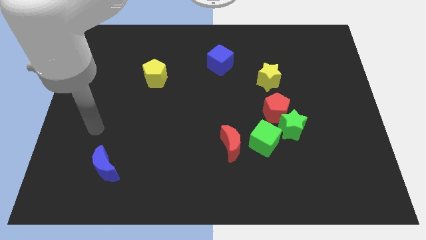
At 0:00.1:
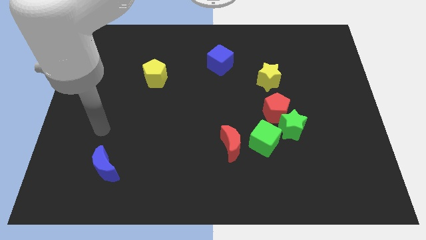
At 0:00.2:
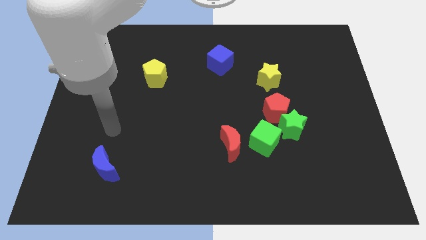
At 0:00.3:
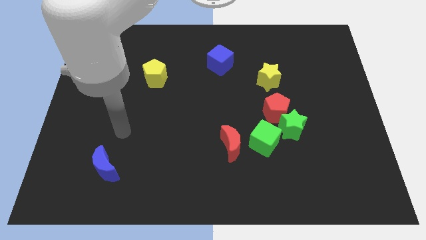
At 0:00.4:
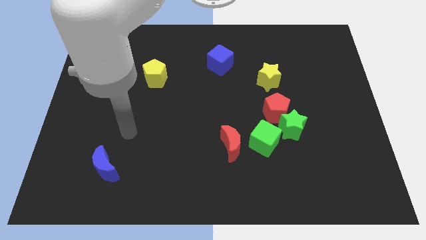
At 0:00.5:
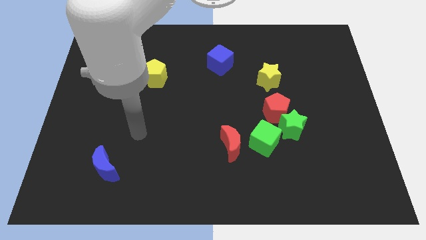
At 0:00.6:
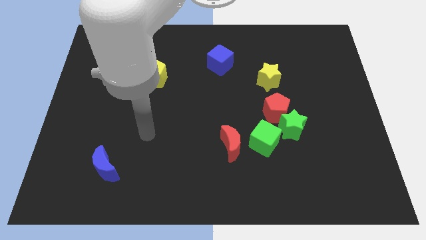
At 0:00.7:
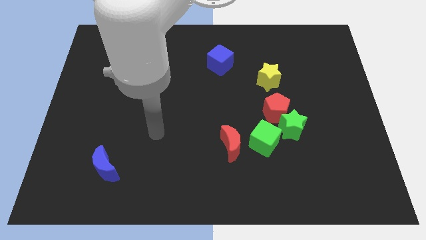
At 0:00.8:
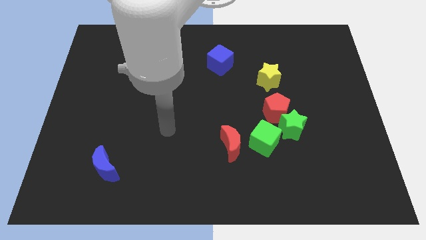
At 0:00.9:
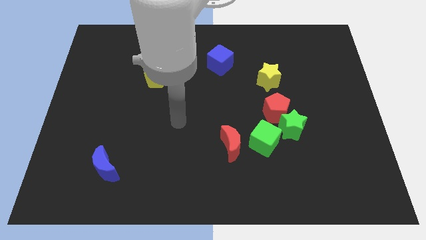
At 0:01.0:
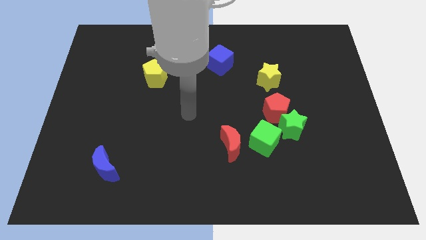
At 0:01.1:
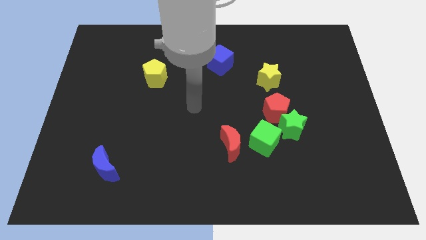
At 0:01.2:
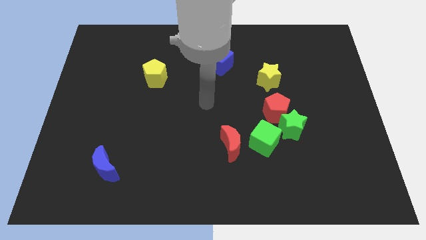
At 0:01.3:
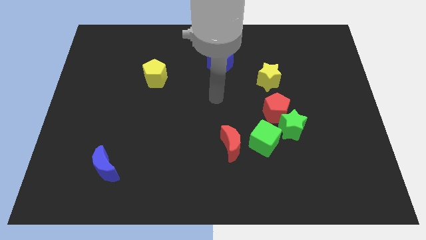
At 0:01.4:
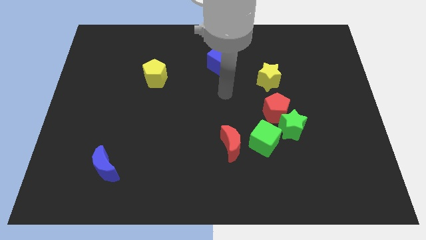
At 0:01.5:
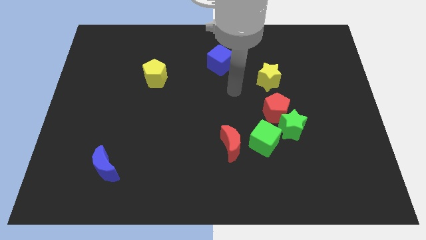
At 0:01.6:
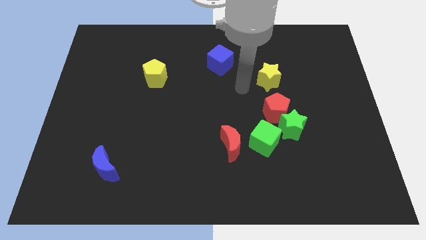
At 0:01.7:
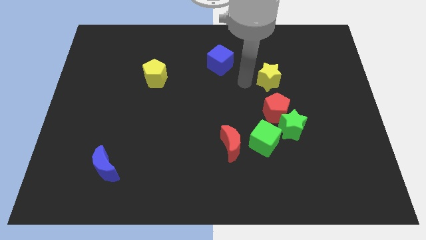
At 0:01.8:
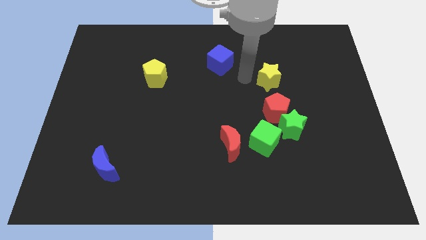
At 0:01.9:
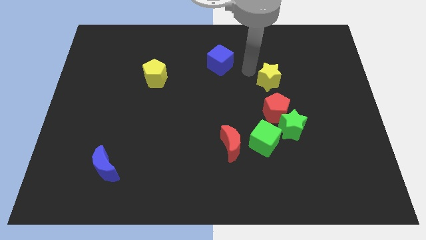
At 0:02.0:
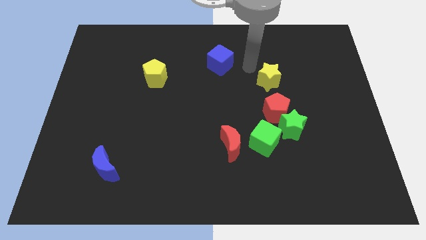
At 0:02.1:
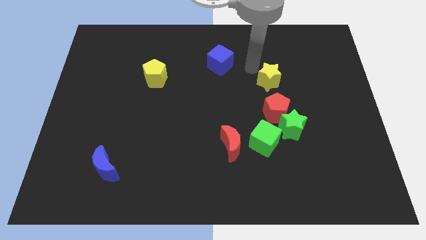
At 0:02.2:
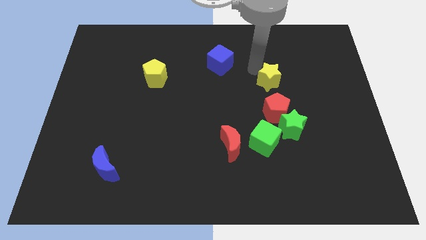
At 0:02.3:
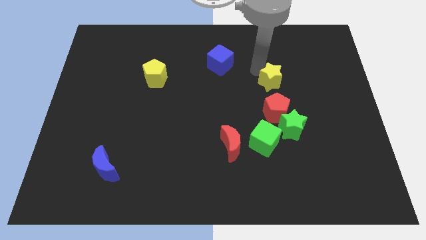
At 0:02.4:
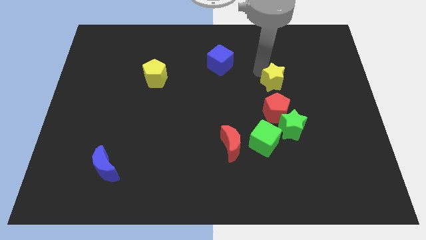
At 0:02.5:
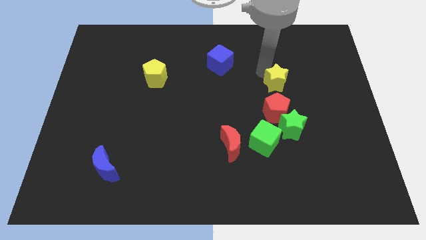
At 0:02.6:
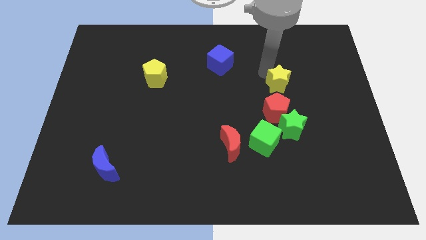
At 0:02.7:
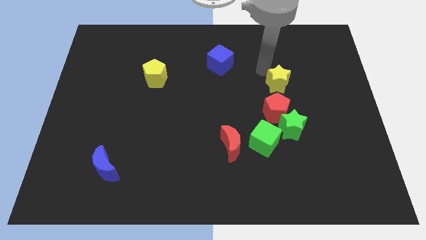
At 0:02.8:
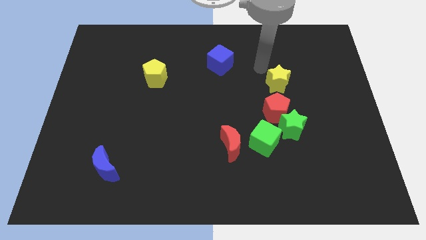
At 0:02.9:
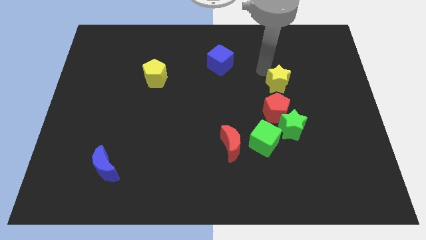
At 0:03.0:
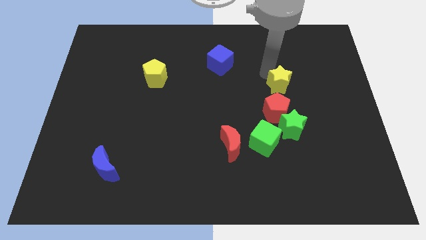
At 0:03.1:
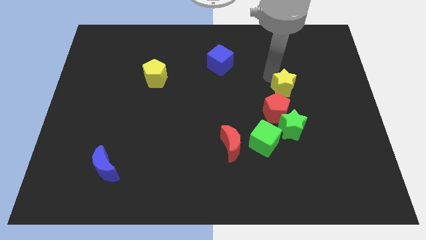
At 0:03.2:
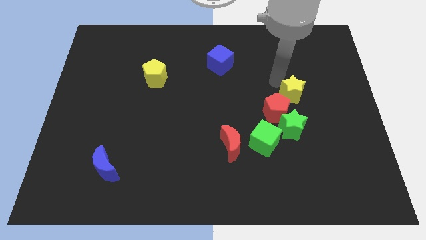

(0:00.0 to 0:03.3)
push the yellow star downwards and right a bit

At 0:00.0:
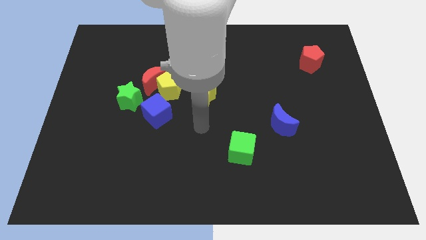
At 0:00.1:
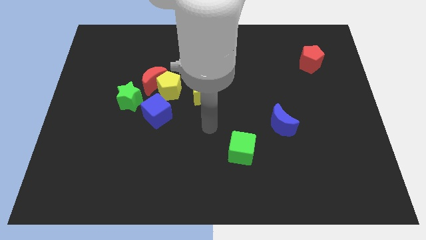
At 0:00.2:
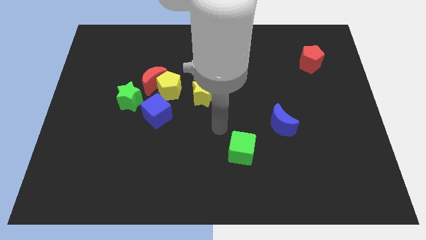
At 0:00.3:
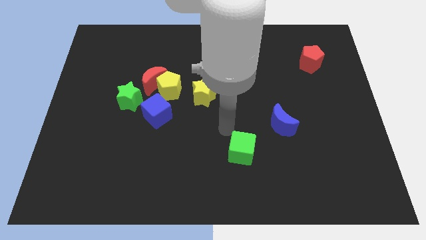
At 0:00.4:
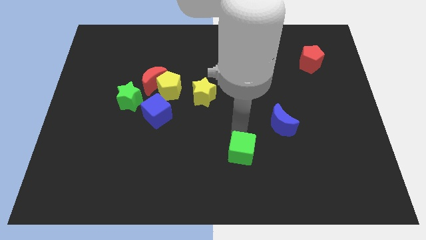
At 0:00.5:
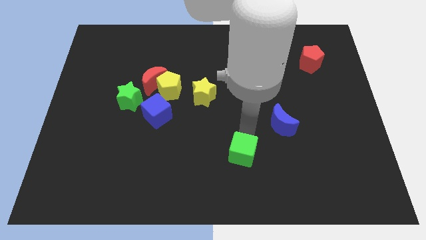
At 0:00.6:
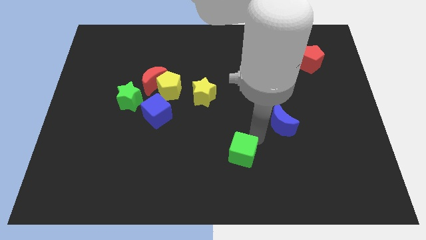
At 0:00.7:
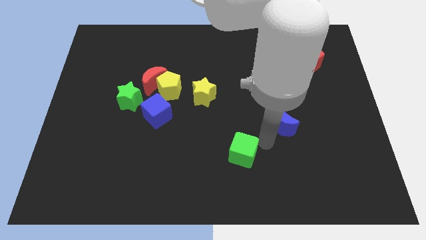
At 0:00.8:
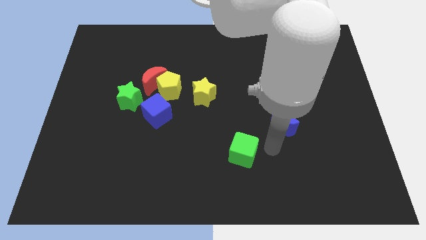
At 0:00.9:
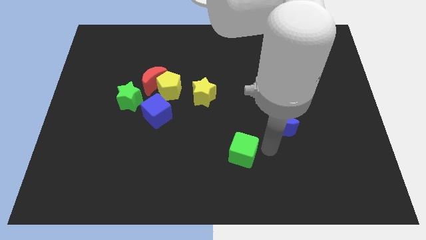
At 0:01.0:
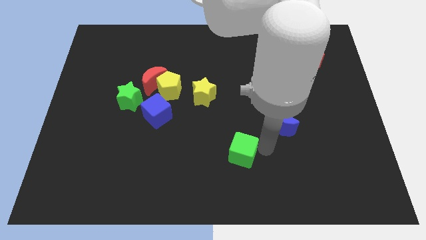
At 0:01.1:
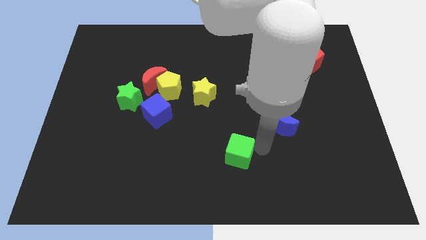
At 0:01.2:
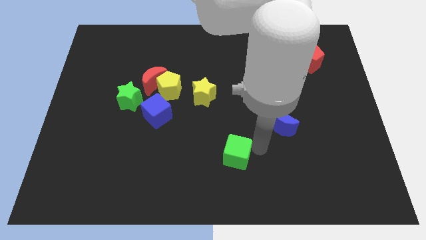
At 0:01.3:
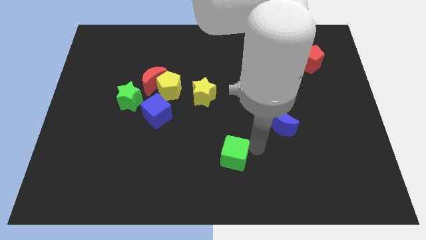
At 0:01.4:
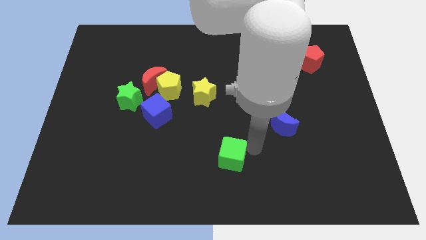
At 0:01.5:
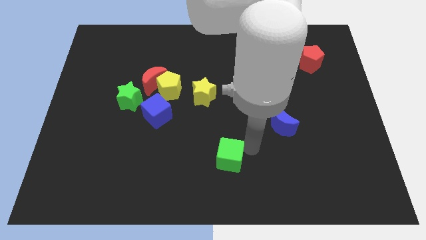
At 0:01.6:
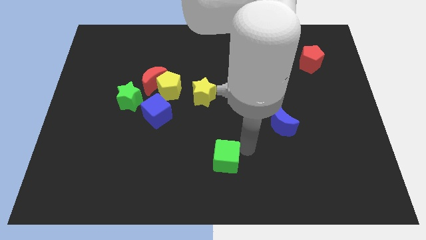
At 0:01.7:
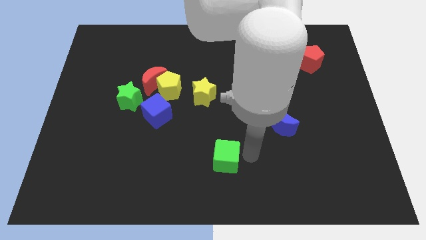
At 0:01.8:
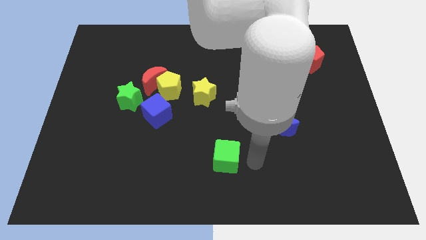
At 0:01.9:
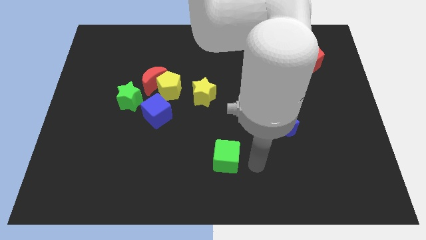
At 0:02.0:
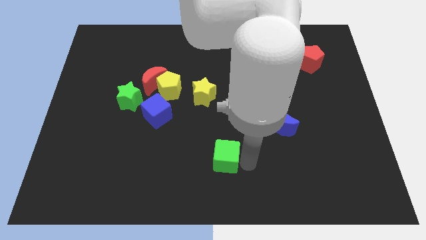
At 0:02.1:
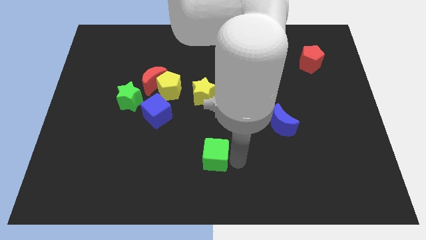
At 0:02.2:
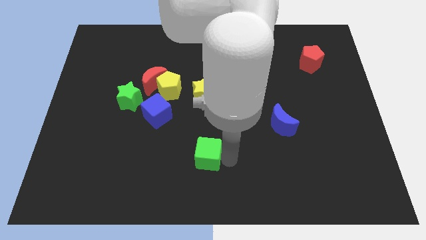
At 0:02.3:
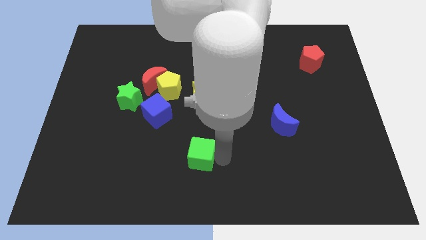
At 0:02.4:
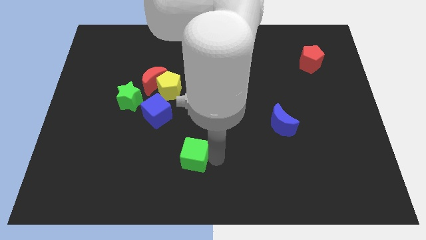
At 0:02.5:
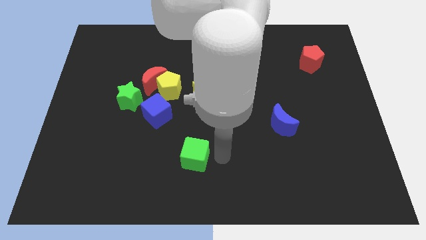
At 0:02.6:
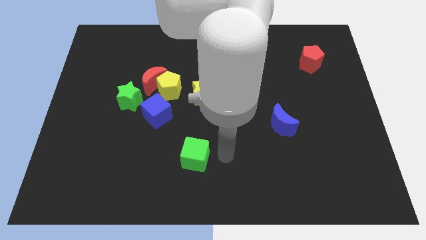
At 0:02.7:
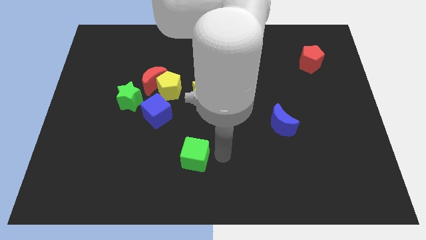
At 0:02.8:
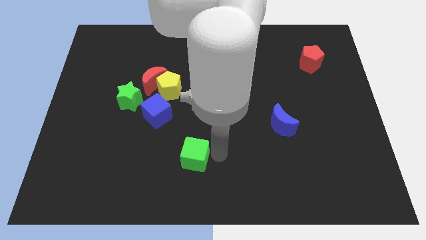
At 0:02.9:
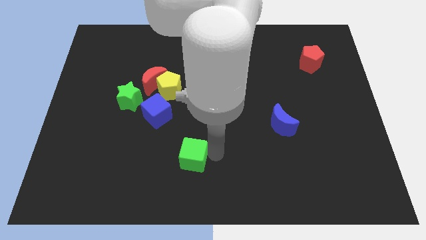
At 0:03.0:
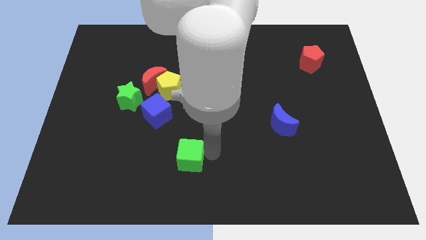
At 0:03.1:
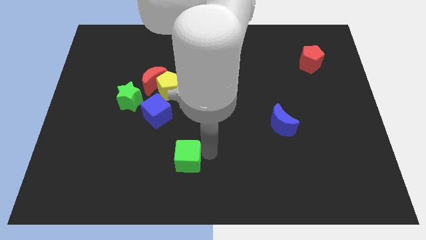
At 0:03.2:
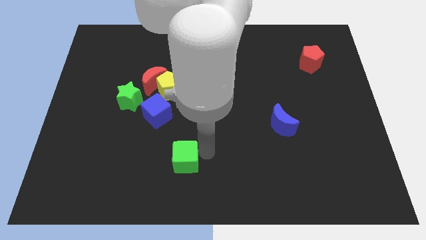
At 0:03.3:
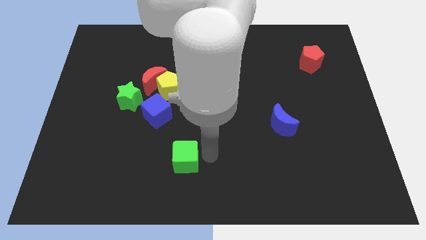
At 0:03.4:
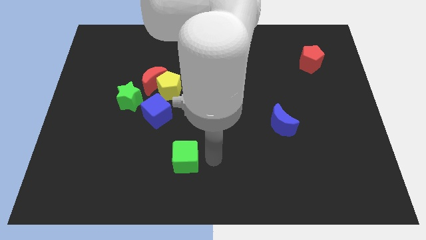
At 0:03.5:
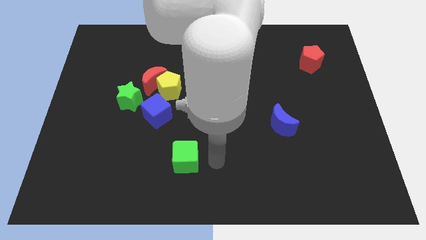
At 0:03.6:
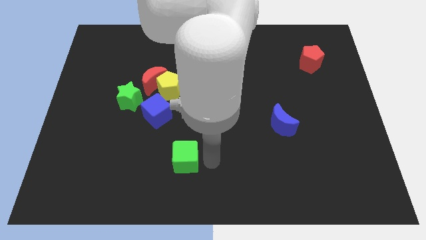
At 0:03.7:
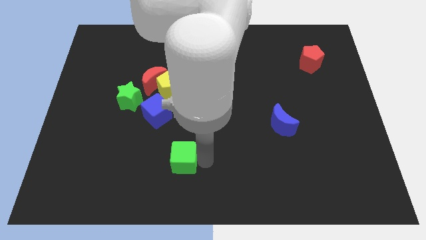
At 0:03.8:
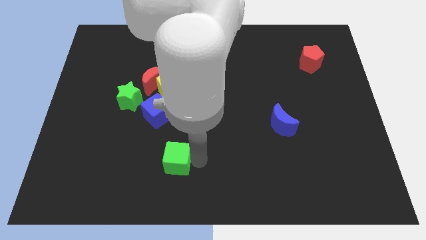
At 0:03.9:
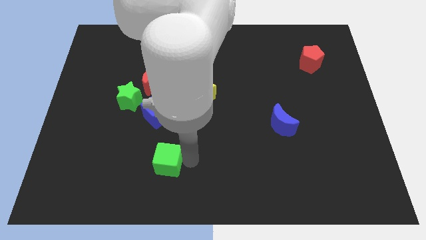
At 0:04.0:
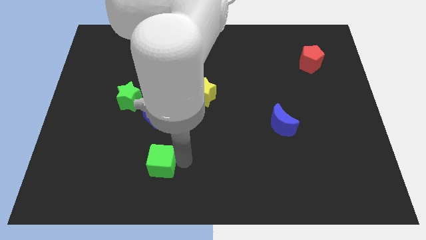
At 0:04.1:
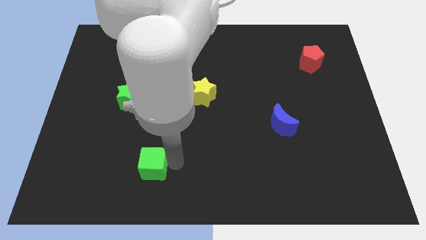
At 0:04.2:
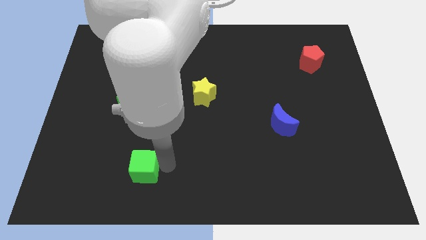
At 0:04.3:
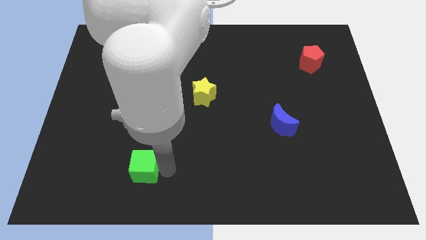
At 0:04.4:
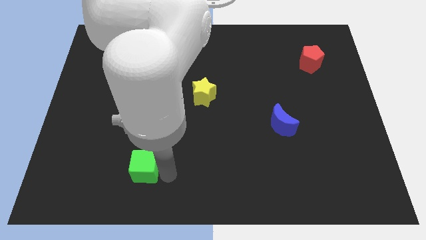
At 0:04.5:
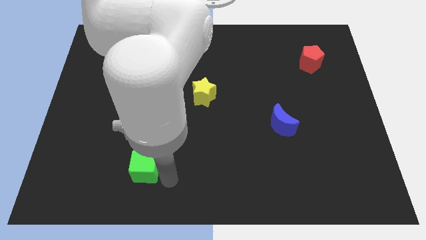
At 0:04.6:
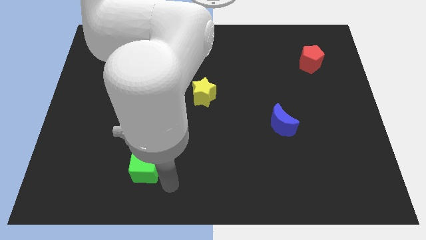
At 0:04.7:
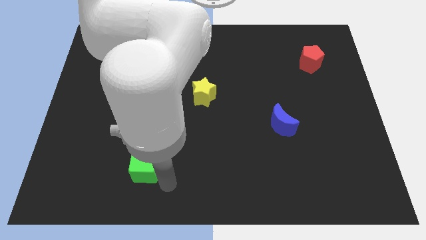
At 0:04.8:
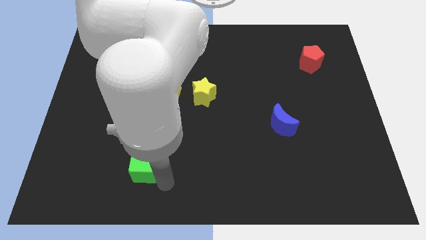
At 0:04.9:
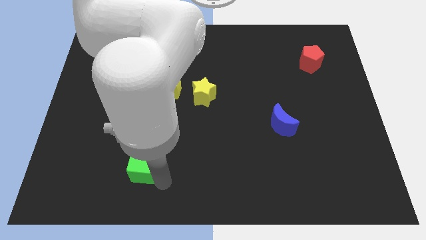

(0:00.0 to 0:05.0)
slide the green cube to the left
